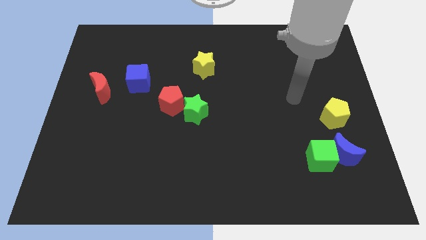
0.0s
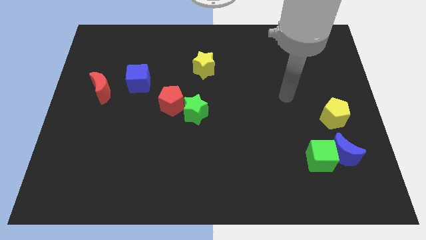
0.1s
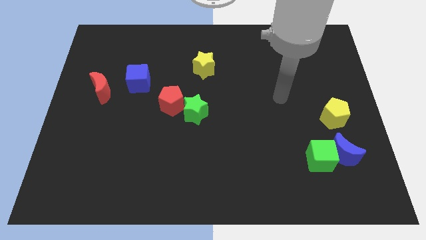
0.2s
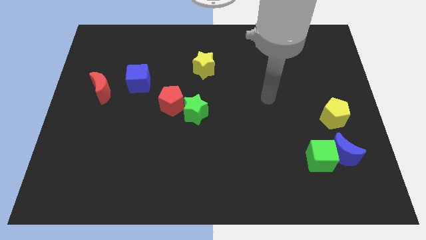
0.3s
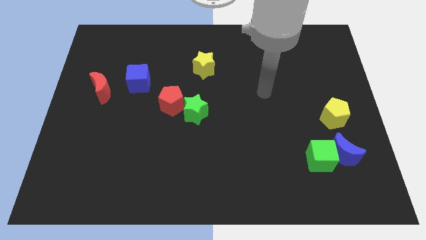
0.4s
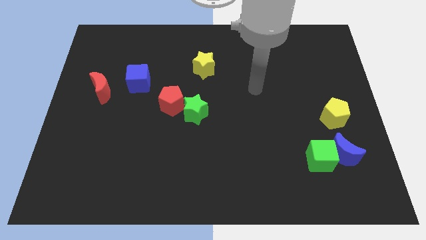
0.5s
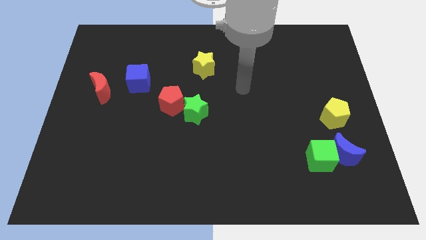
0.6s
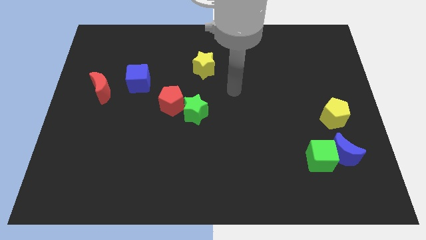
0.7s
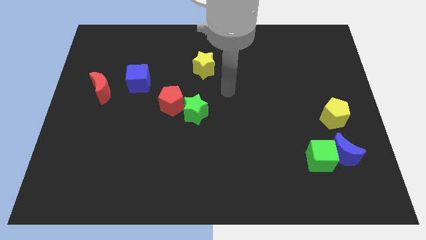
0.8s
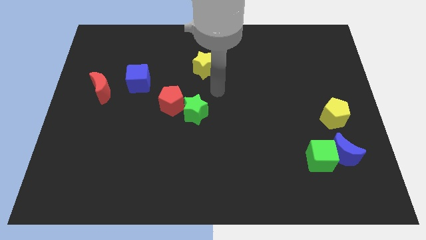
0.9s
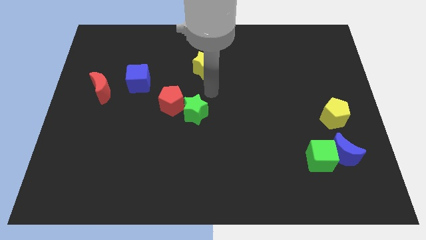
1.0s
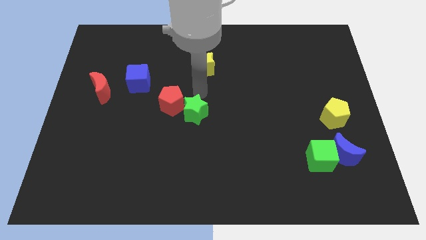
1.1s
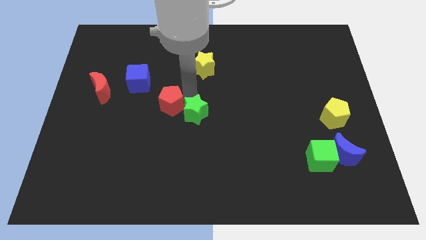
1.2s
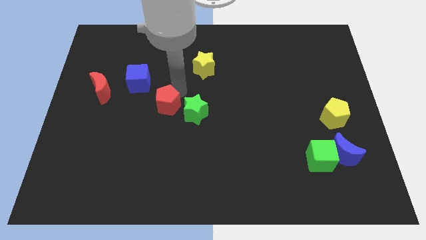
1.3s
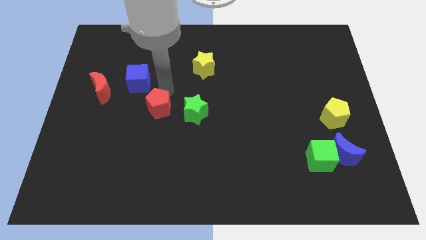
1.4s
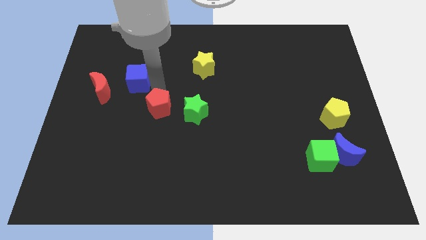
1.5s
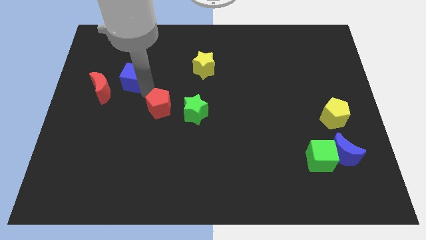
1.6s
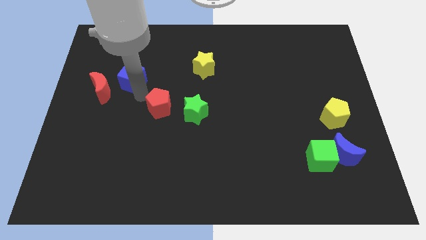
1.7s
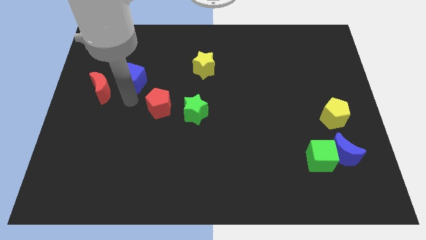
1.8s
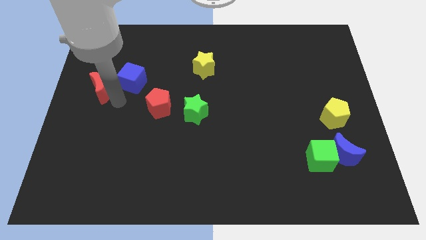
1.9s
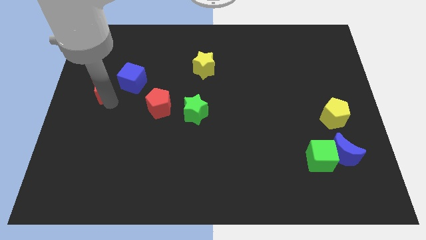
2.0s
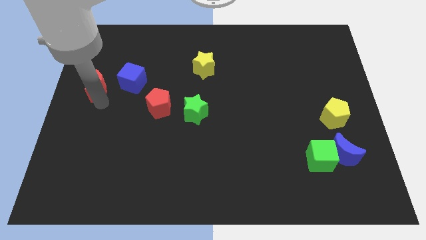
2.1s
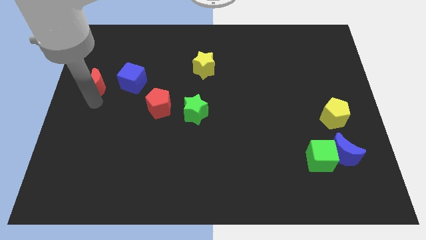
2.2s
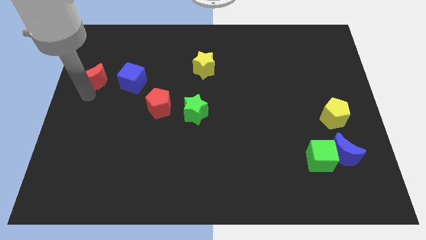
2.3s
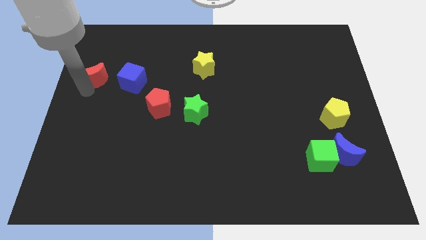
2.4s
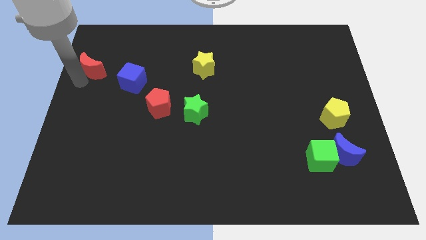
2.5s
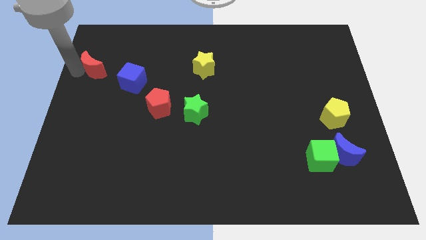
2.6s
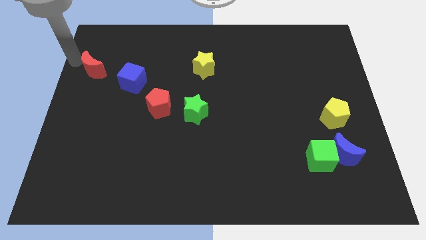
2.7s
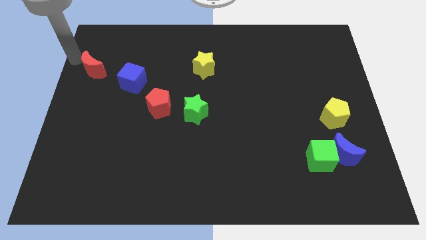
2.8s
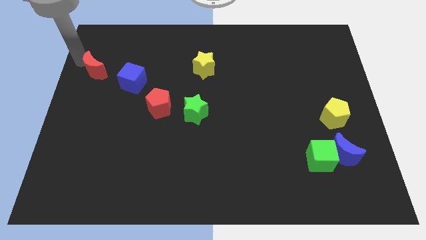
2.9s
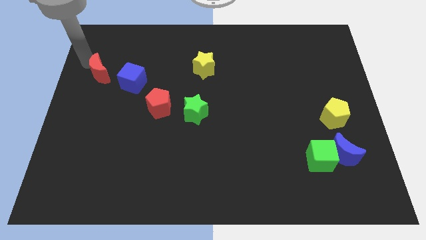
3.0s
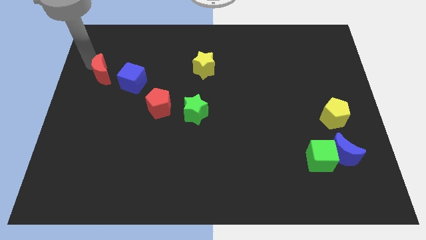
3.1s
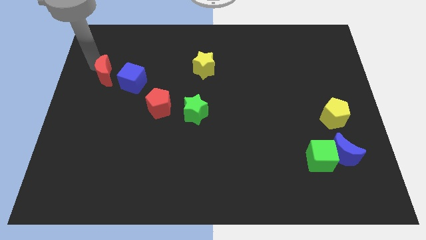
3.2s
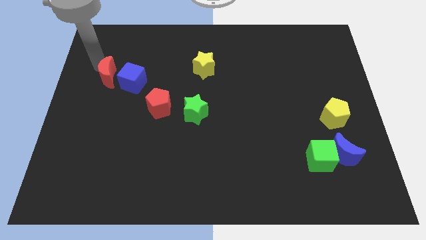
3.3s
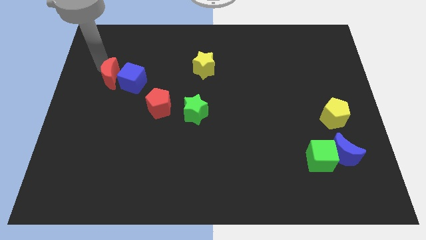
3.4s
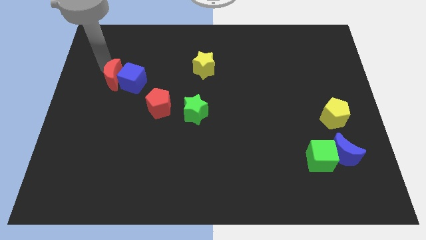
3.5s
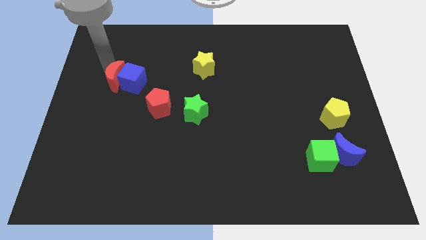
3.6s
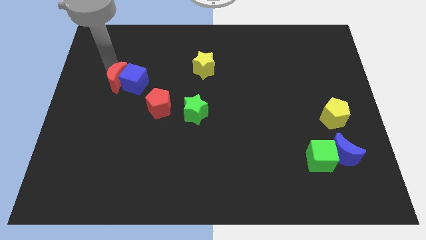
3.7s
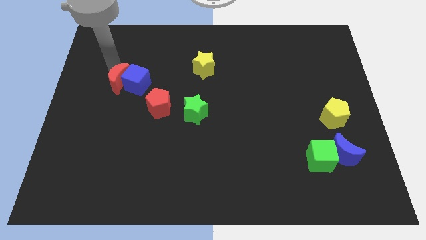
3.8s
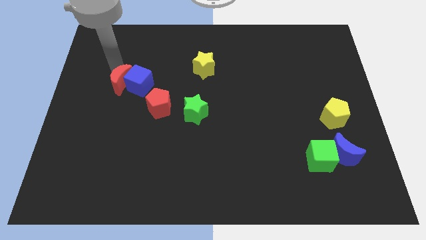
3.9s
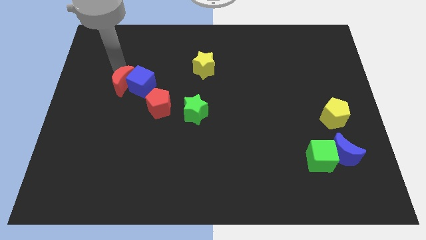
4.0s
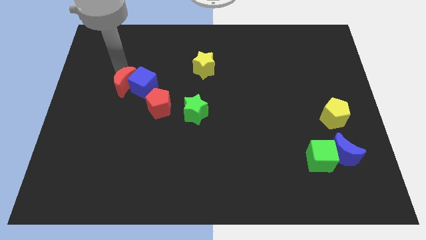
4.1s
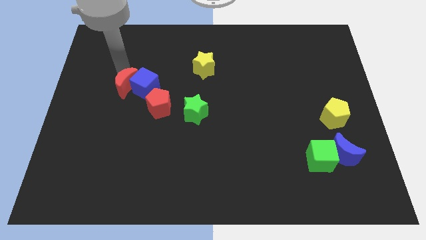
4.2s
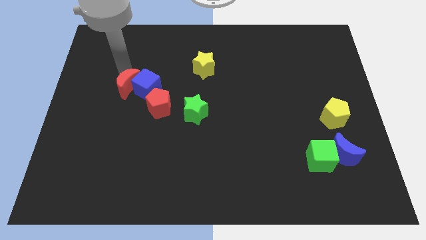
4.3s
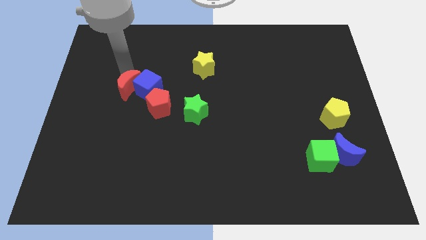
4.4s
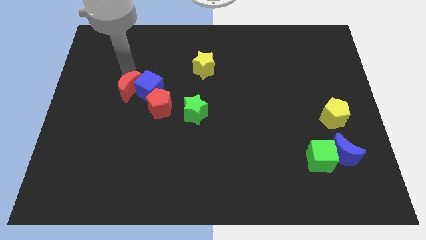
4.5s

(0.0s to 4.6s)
move the red moon right a little bit

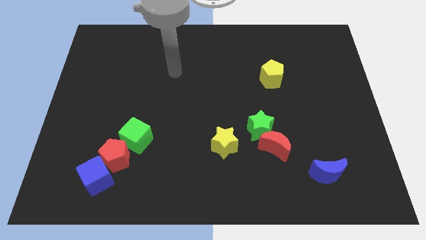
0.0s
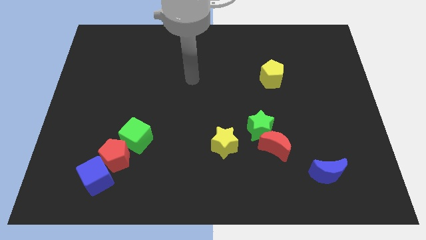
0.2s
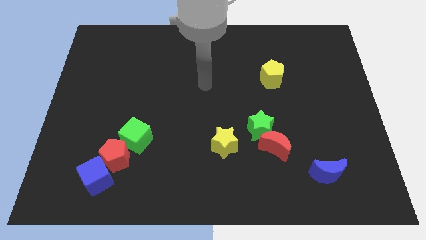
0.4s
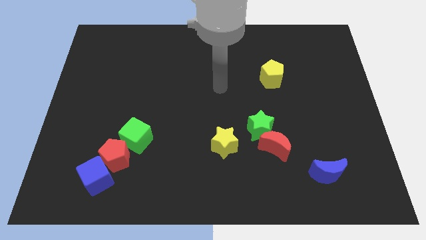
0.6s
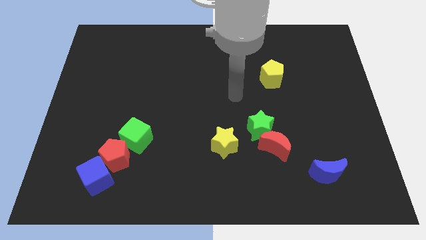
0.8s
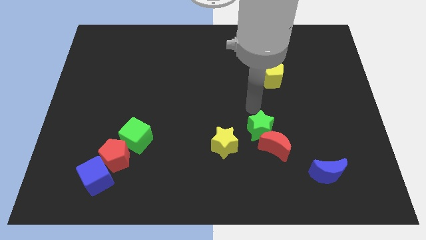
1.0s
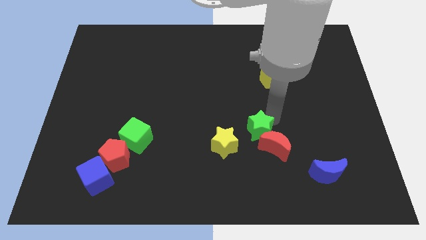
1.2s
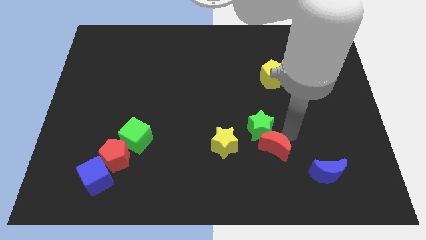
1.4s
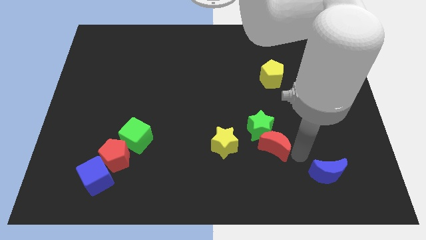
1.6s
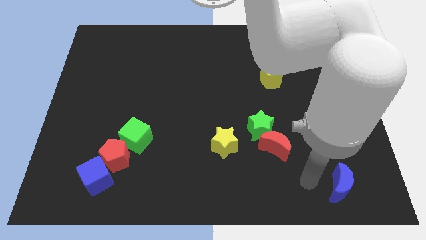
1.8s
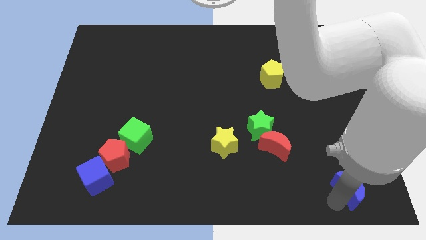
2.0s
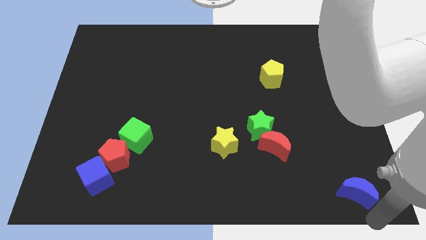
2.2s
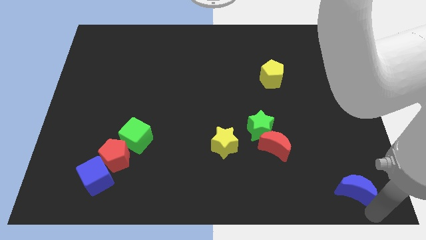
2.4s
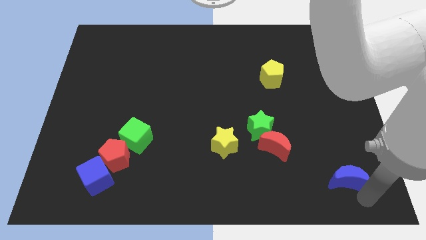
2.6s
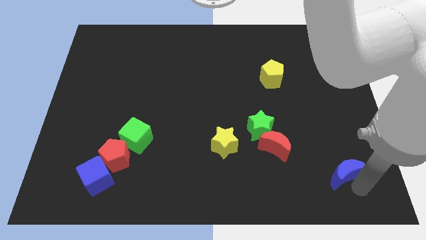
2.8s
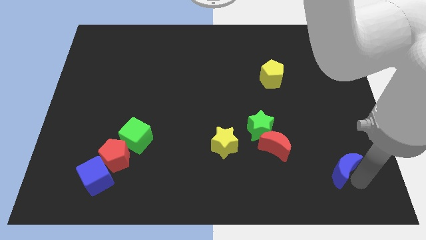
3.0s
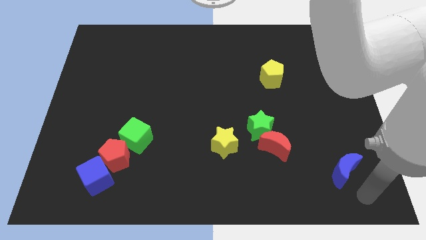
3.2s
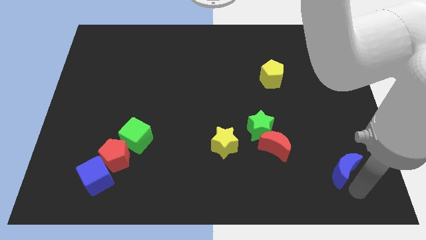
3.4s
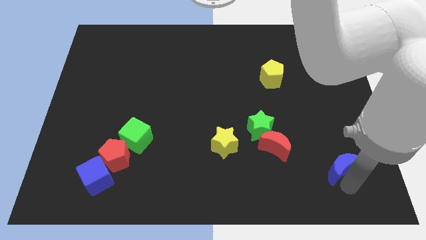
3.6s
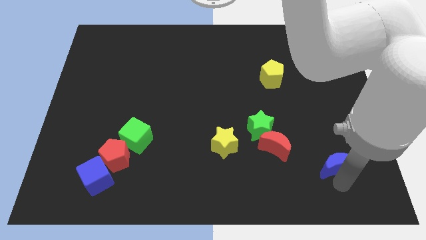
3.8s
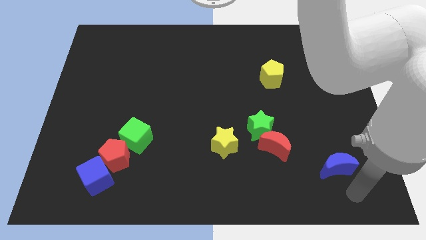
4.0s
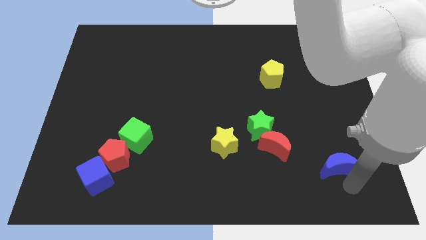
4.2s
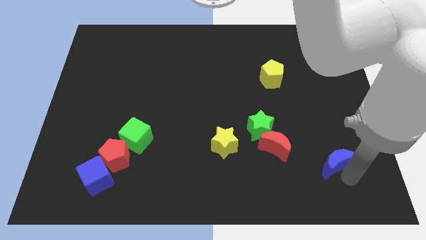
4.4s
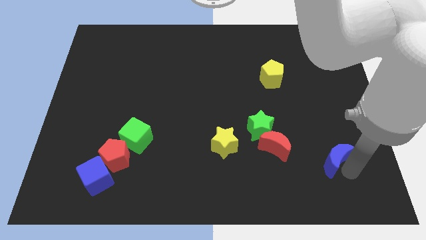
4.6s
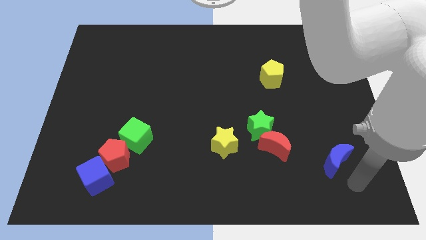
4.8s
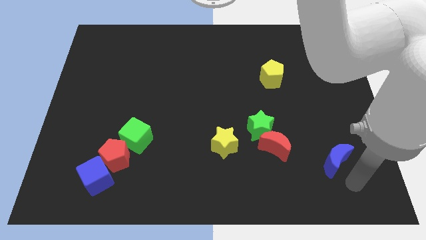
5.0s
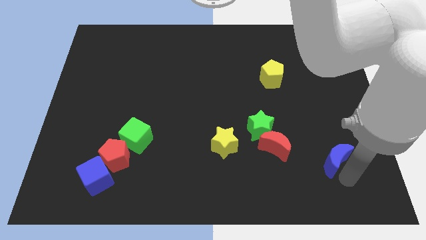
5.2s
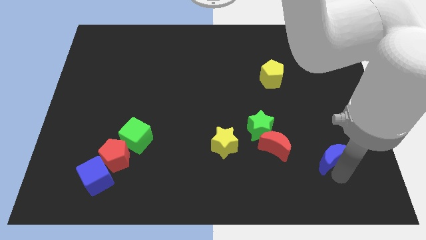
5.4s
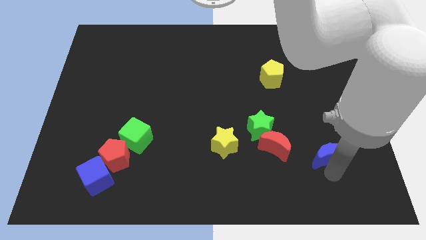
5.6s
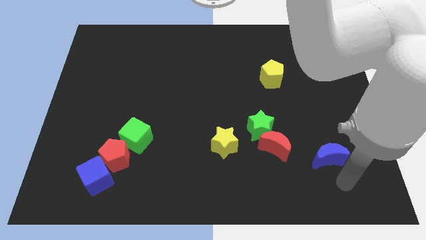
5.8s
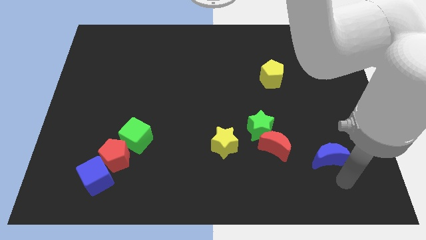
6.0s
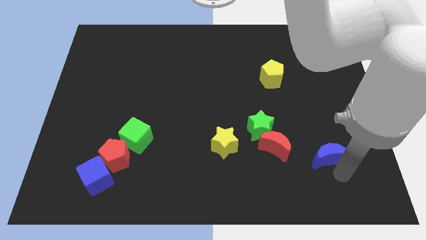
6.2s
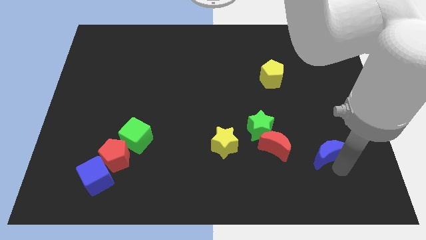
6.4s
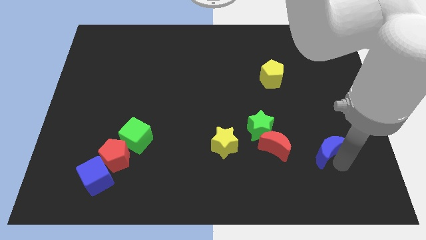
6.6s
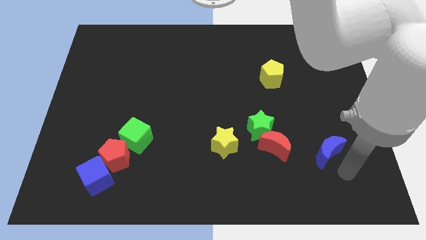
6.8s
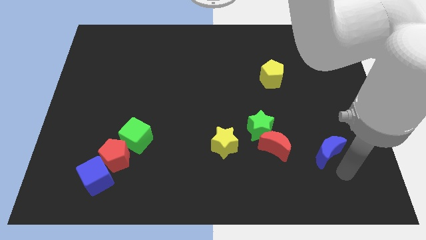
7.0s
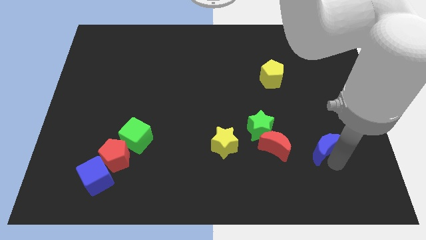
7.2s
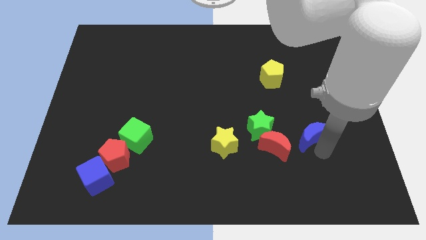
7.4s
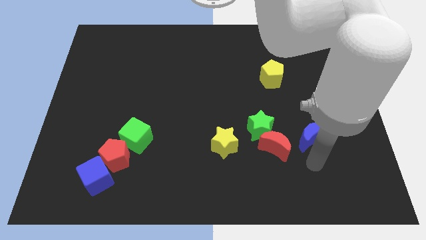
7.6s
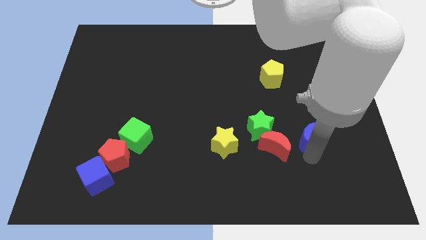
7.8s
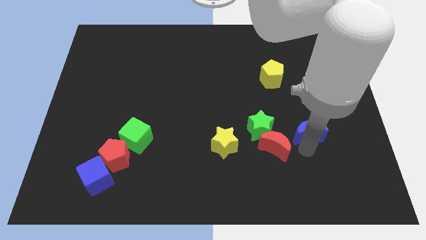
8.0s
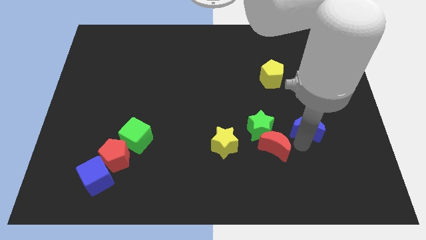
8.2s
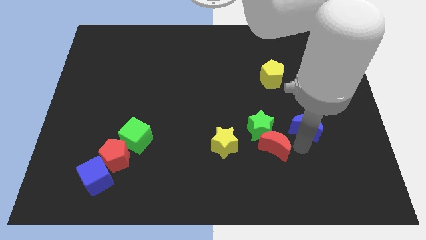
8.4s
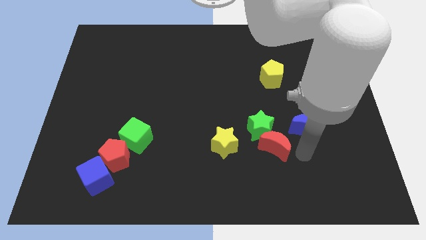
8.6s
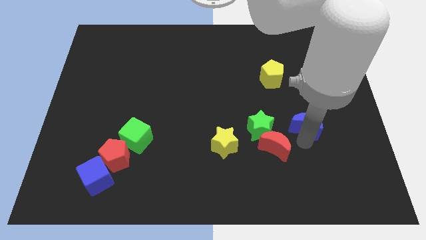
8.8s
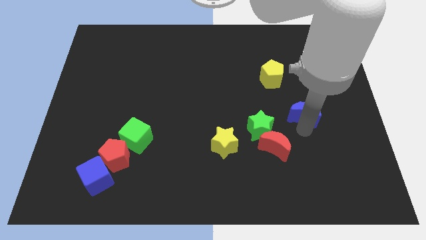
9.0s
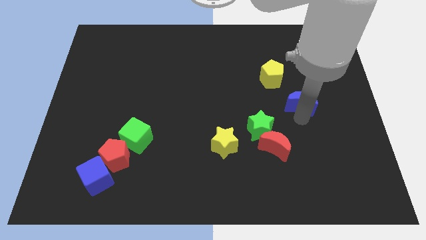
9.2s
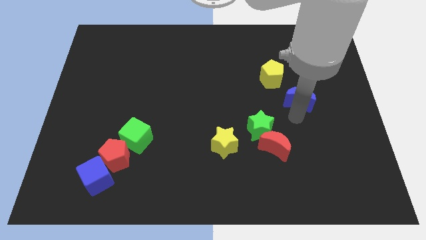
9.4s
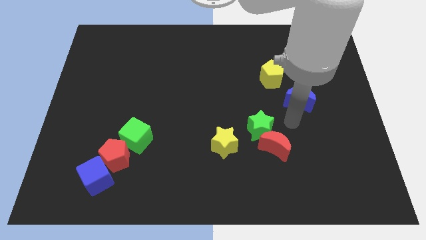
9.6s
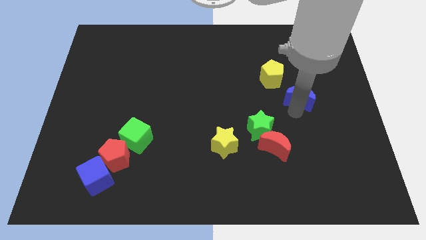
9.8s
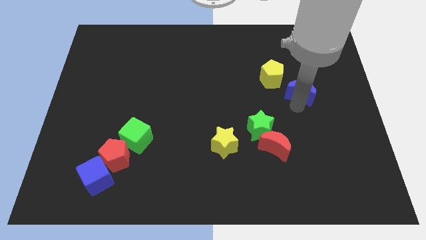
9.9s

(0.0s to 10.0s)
slide the blue moon up
